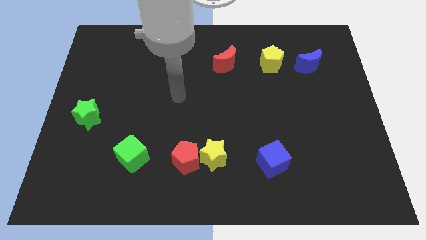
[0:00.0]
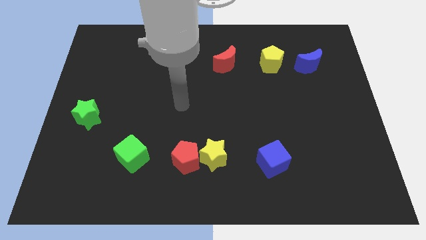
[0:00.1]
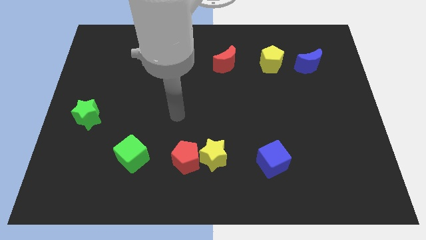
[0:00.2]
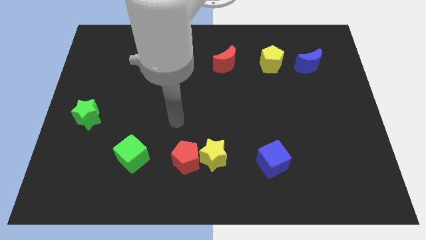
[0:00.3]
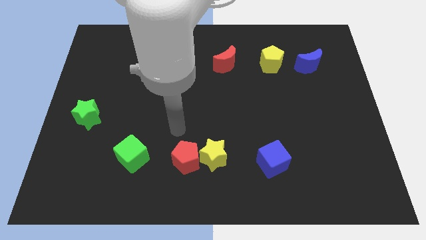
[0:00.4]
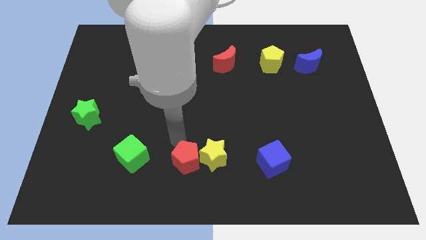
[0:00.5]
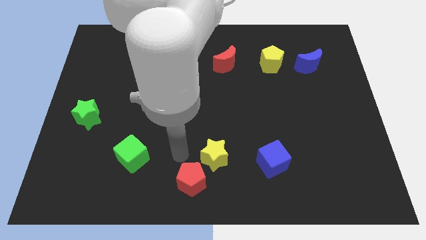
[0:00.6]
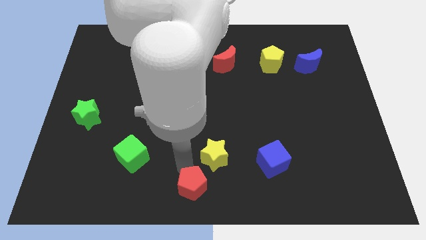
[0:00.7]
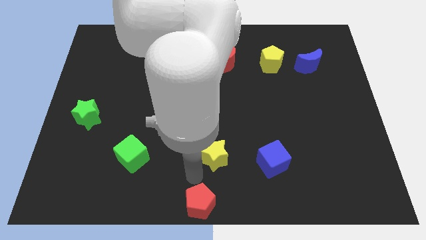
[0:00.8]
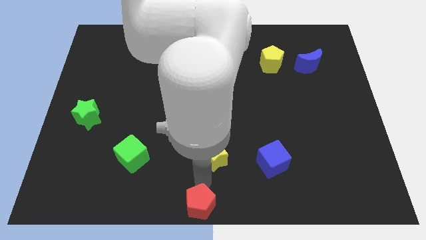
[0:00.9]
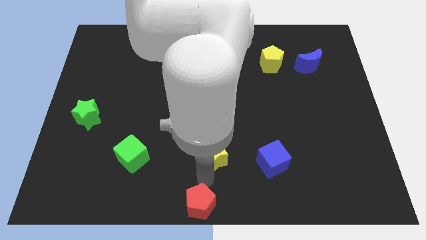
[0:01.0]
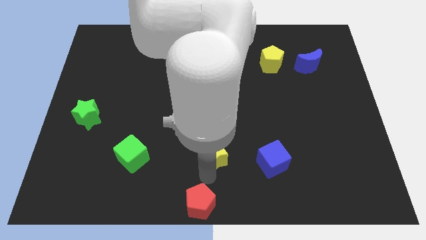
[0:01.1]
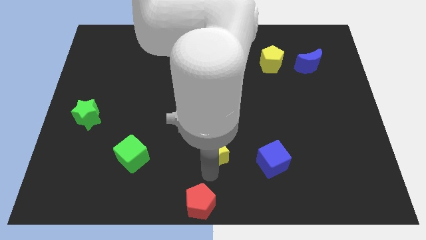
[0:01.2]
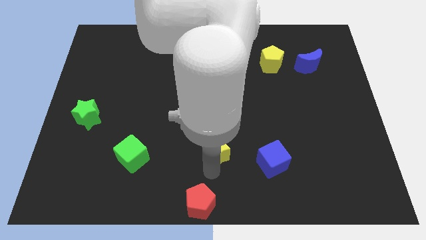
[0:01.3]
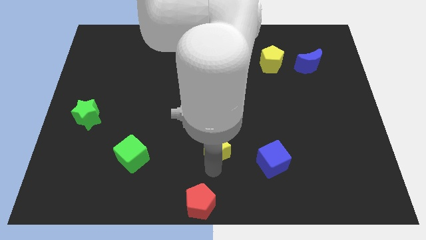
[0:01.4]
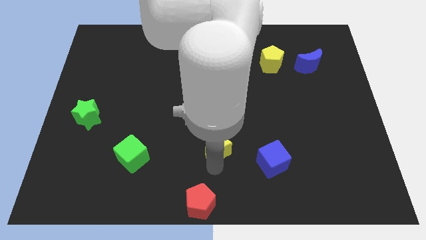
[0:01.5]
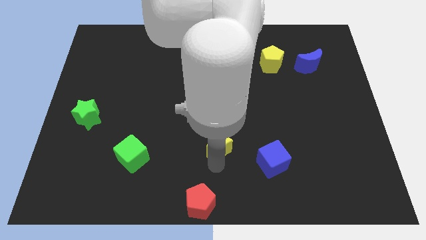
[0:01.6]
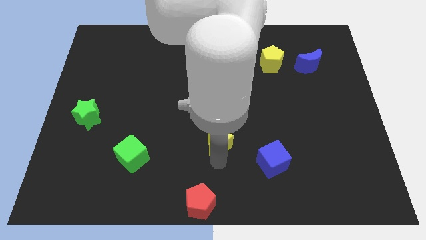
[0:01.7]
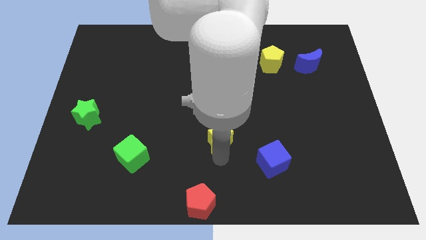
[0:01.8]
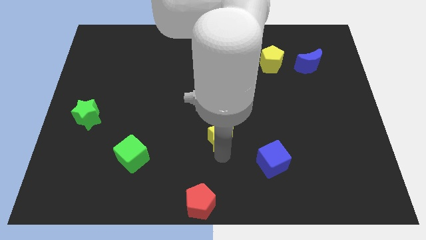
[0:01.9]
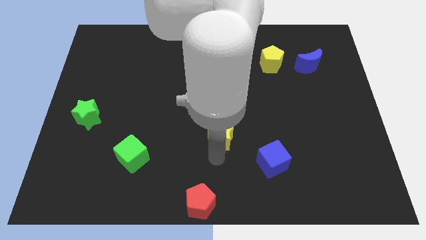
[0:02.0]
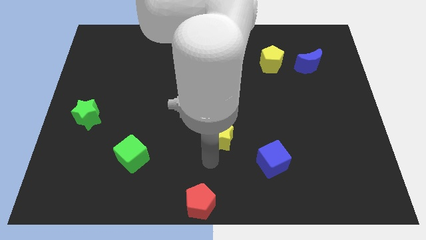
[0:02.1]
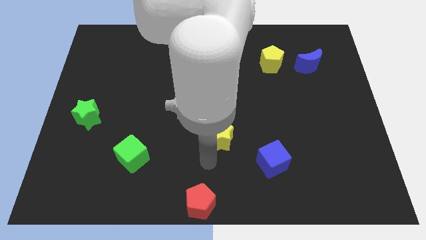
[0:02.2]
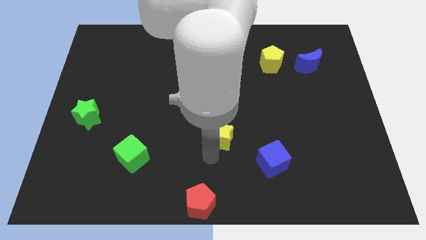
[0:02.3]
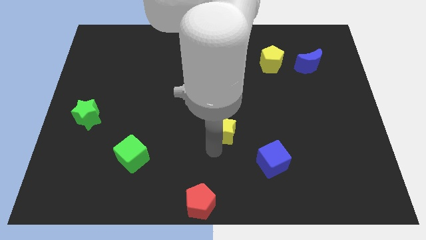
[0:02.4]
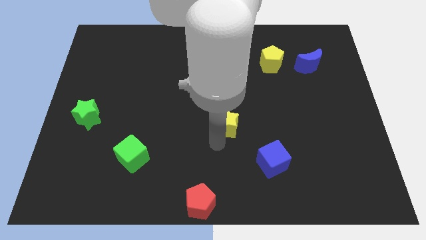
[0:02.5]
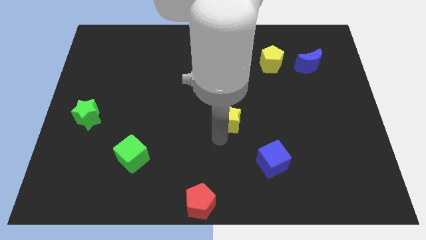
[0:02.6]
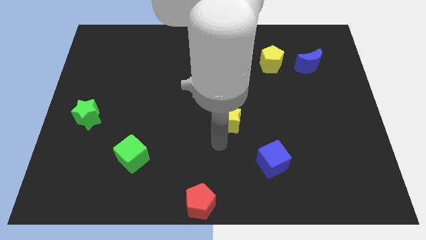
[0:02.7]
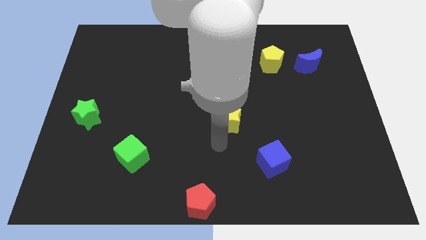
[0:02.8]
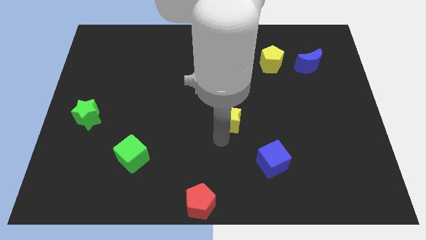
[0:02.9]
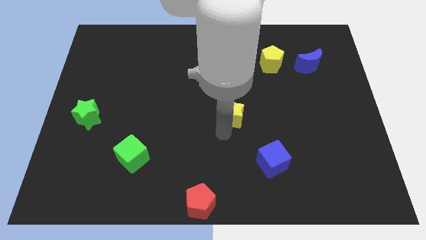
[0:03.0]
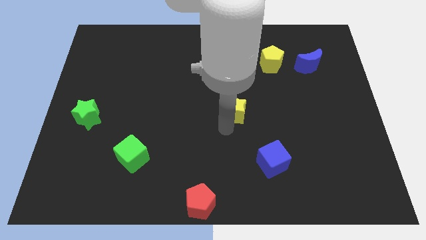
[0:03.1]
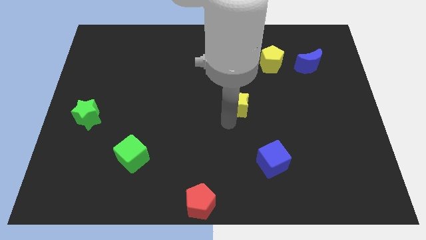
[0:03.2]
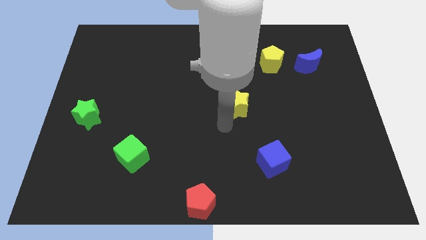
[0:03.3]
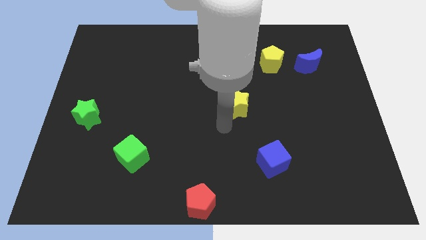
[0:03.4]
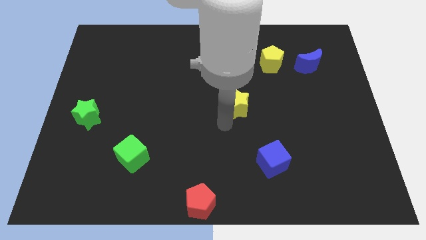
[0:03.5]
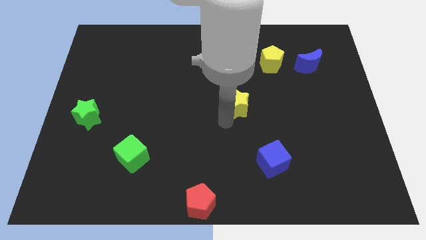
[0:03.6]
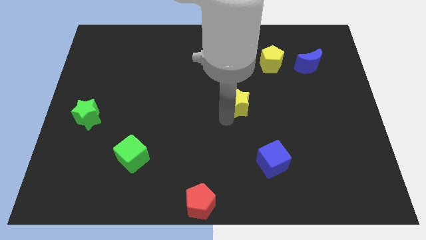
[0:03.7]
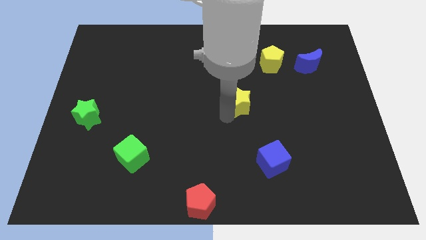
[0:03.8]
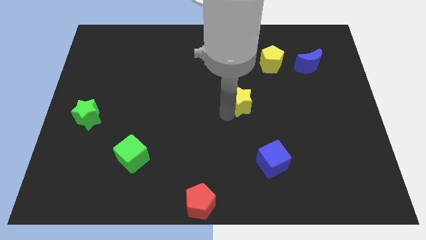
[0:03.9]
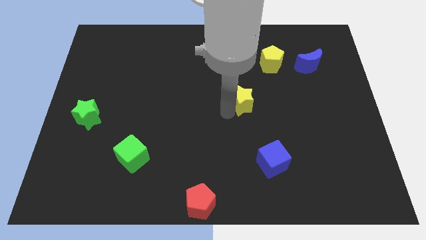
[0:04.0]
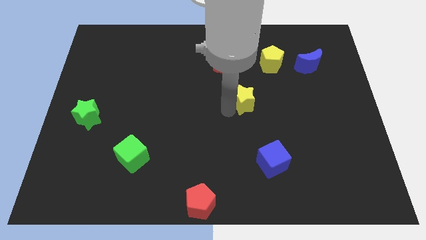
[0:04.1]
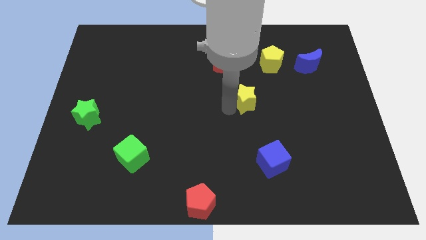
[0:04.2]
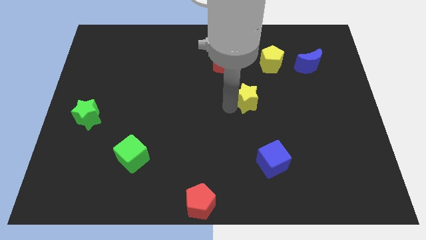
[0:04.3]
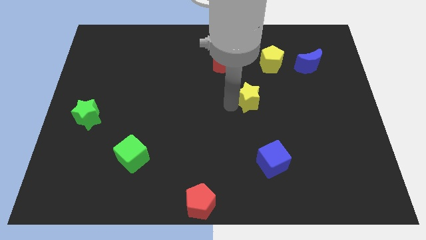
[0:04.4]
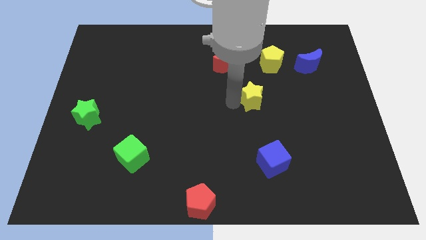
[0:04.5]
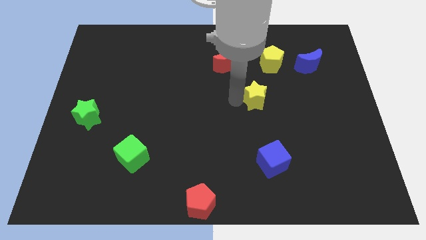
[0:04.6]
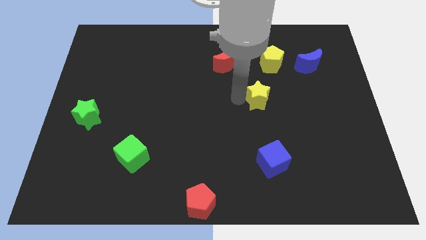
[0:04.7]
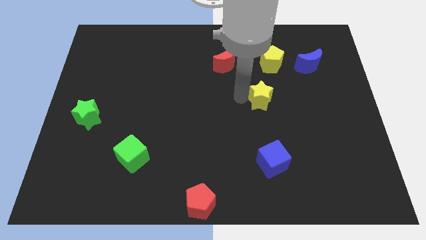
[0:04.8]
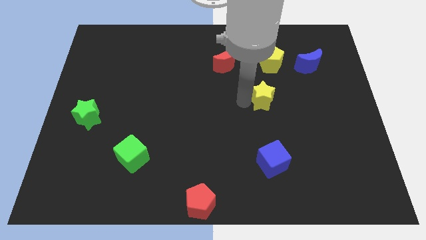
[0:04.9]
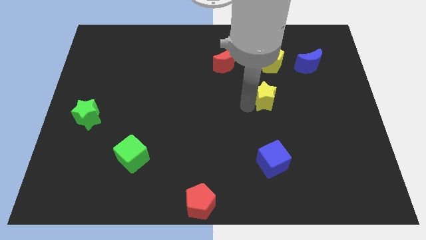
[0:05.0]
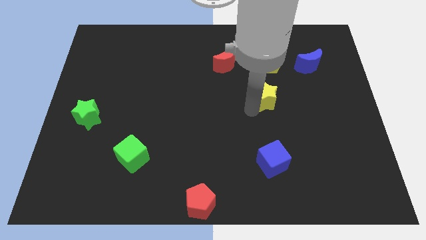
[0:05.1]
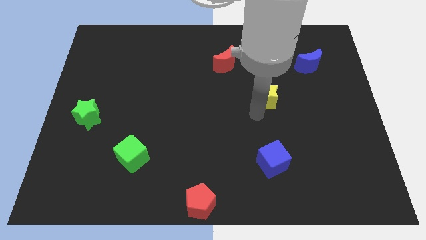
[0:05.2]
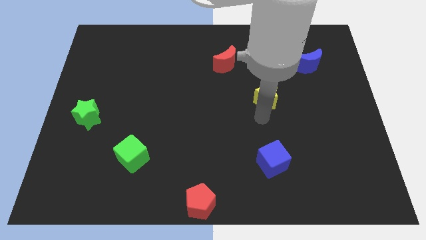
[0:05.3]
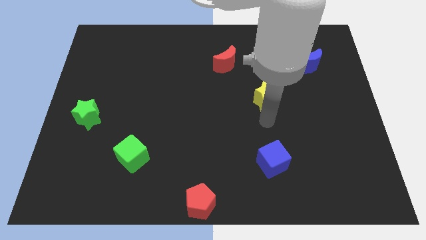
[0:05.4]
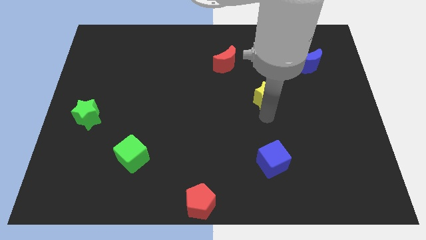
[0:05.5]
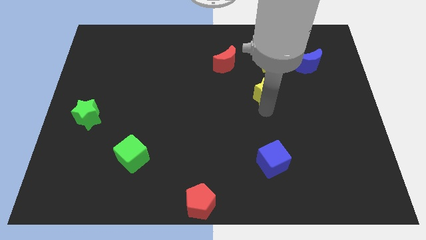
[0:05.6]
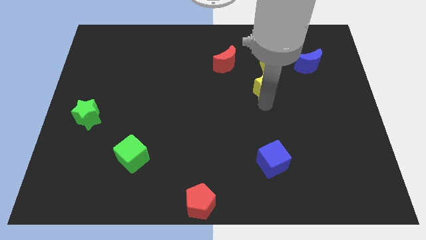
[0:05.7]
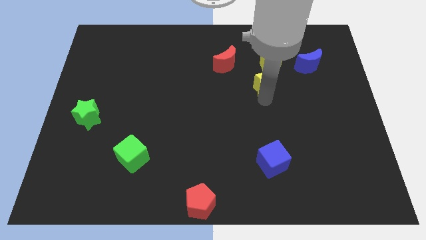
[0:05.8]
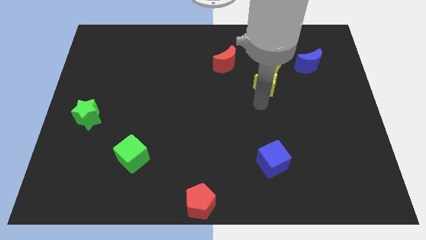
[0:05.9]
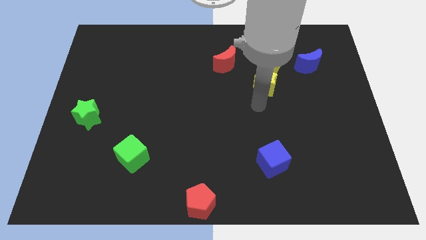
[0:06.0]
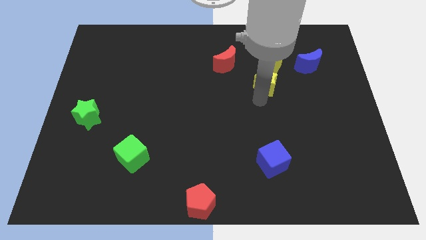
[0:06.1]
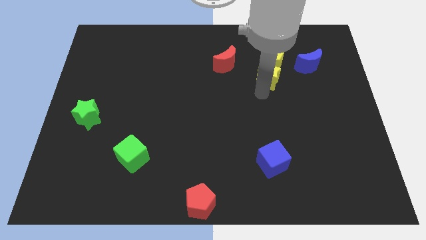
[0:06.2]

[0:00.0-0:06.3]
push the yellow star towards the yellow pentagon

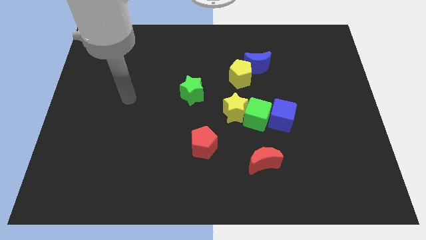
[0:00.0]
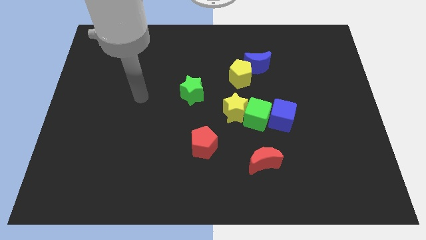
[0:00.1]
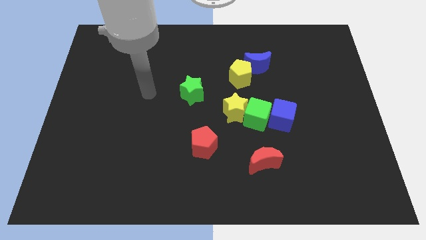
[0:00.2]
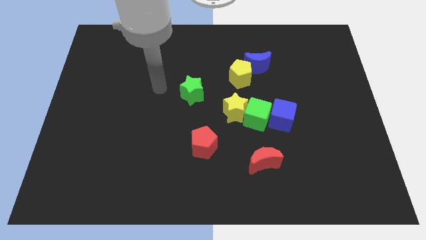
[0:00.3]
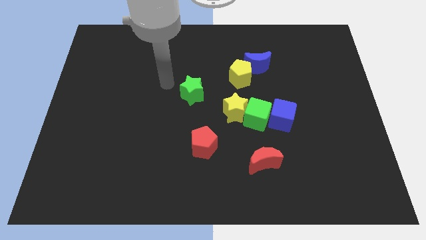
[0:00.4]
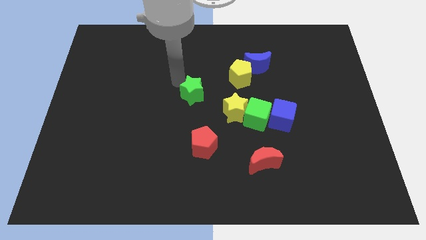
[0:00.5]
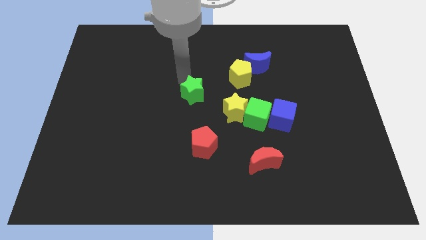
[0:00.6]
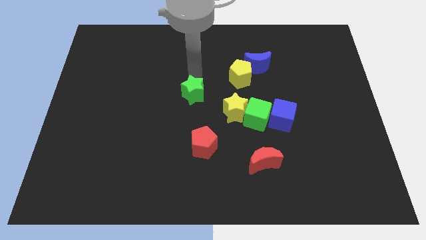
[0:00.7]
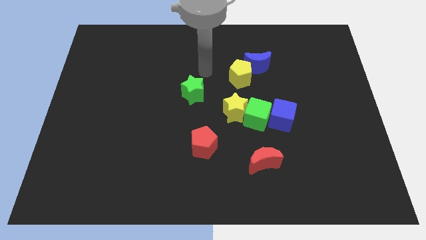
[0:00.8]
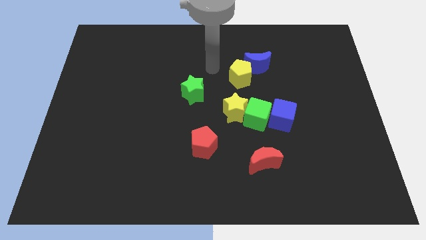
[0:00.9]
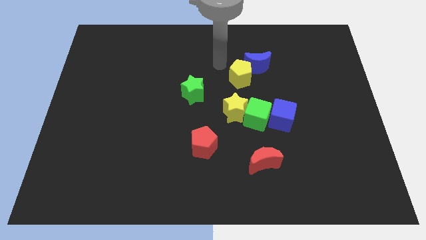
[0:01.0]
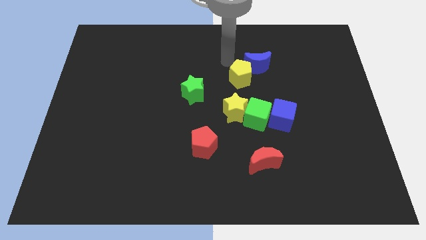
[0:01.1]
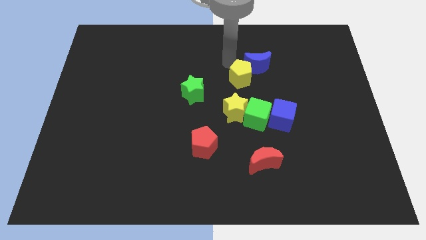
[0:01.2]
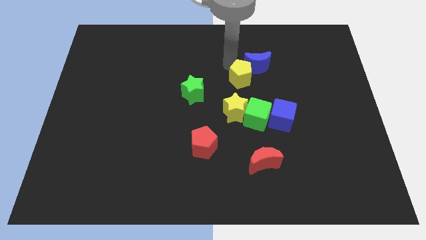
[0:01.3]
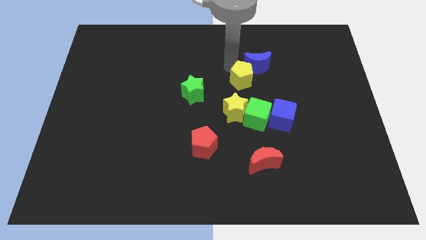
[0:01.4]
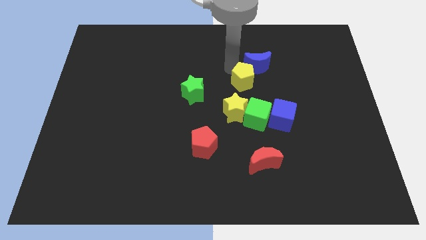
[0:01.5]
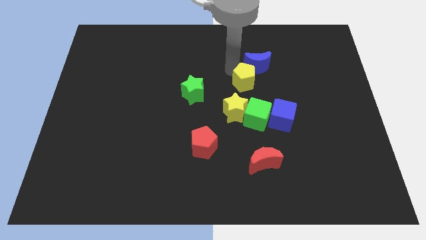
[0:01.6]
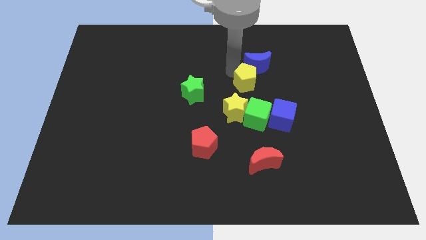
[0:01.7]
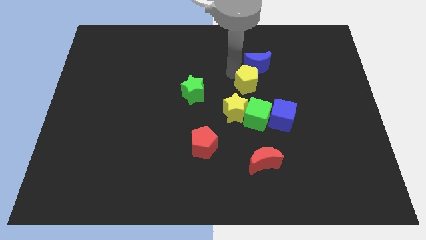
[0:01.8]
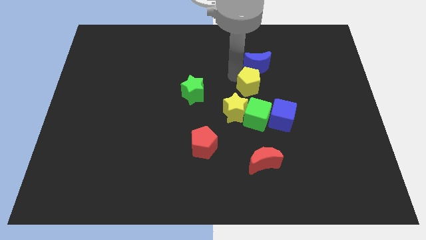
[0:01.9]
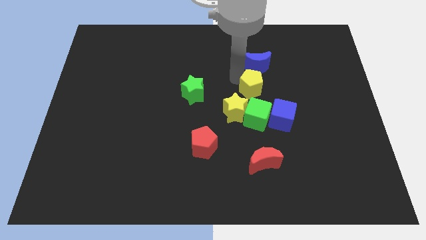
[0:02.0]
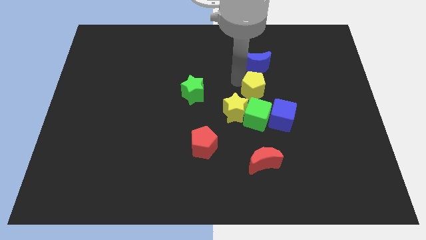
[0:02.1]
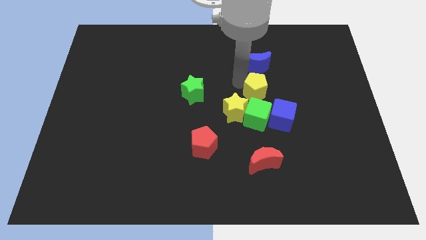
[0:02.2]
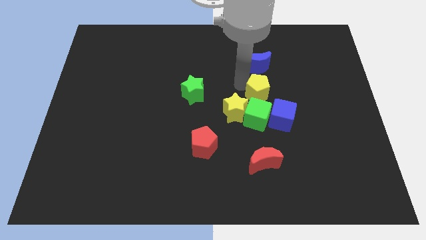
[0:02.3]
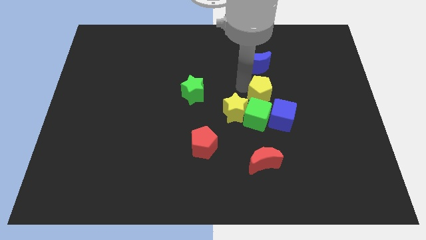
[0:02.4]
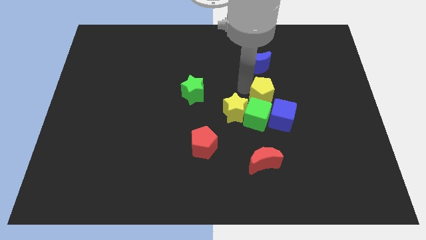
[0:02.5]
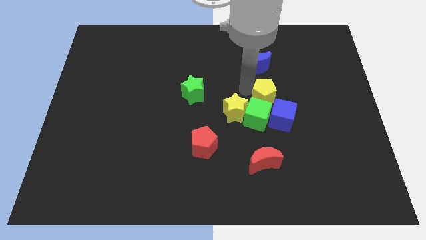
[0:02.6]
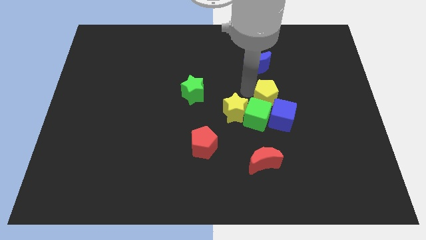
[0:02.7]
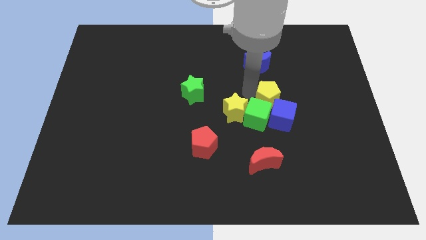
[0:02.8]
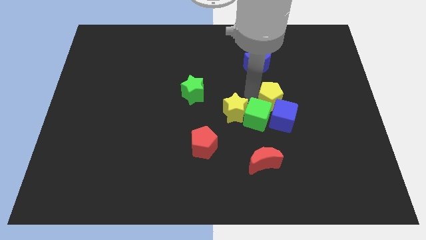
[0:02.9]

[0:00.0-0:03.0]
move the yellow pentagon to the blue cube
